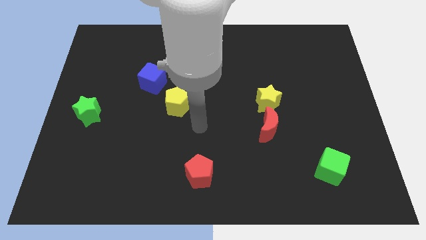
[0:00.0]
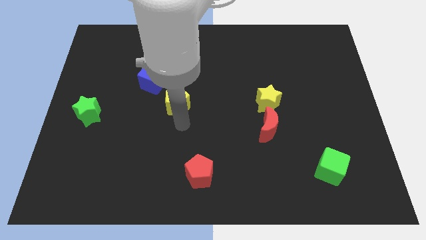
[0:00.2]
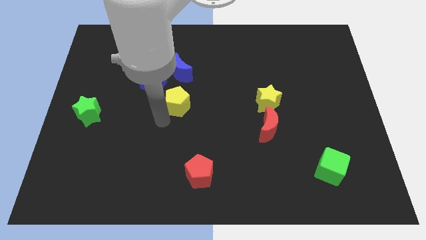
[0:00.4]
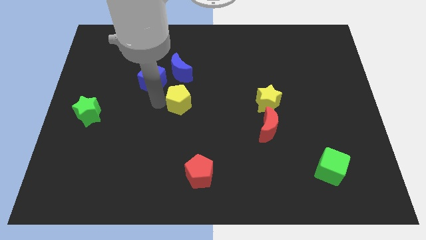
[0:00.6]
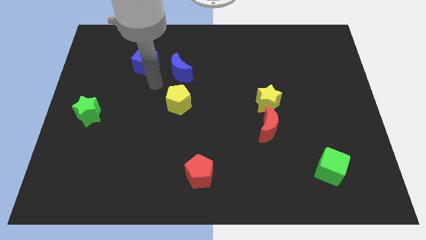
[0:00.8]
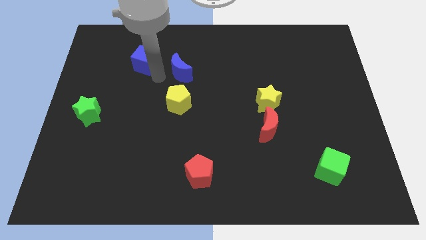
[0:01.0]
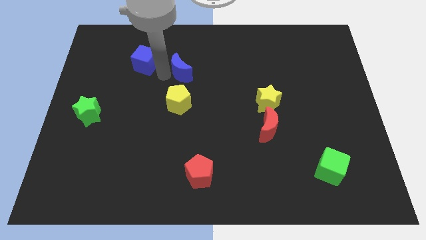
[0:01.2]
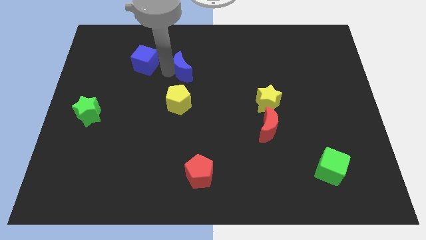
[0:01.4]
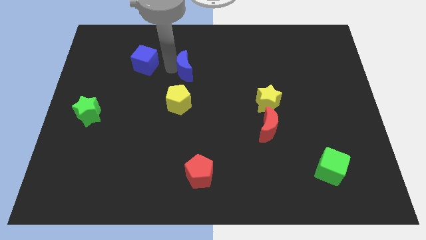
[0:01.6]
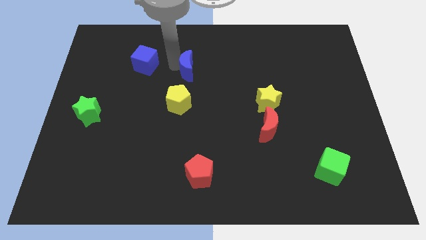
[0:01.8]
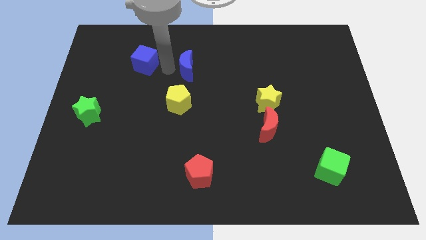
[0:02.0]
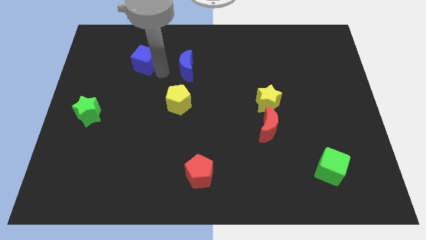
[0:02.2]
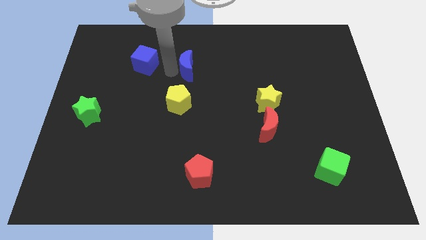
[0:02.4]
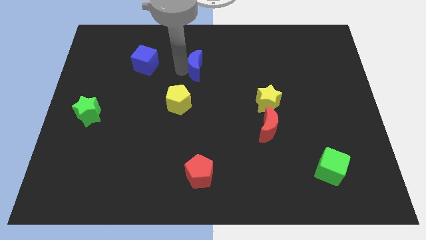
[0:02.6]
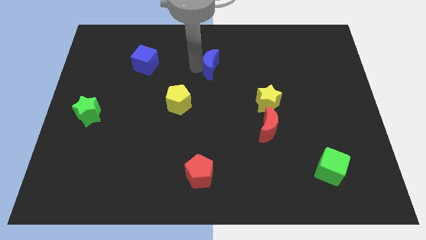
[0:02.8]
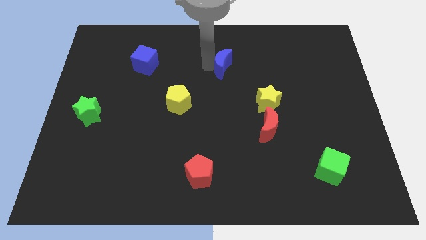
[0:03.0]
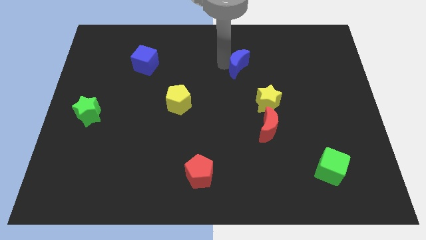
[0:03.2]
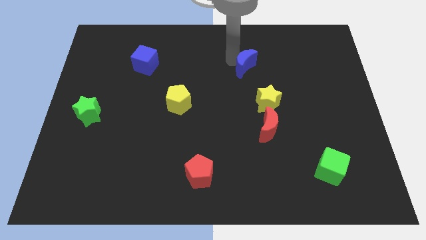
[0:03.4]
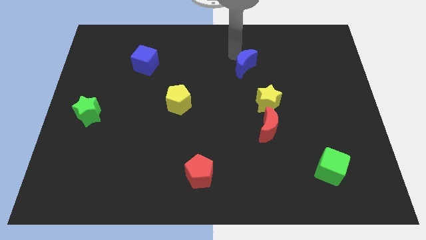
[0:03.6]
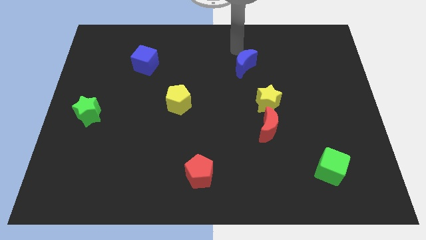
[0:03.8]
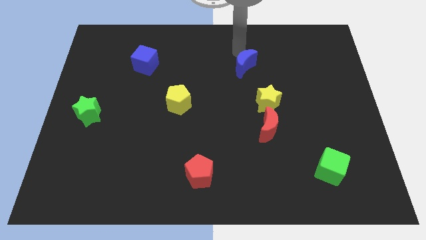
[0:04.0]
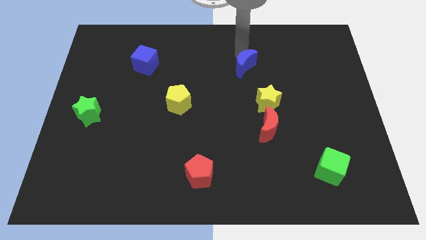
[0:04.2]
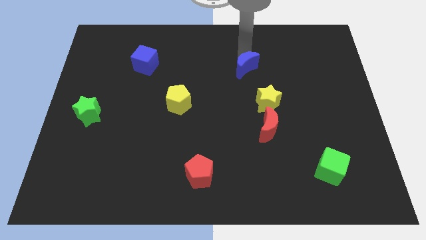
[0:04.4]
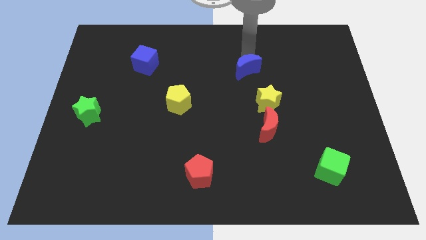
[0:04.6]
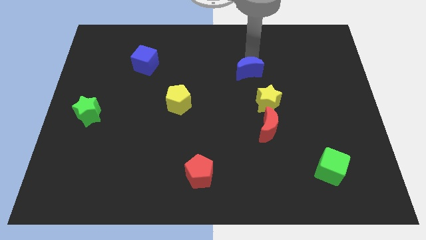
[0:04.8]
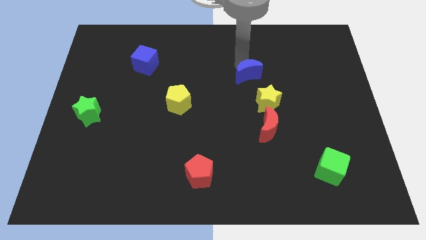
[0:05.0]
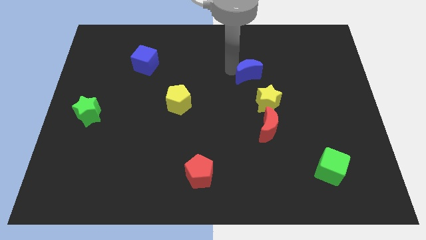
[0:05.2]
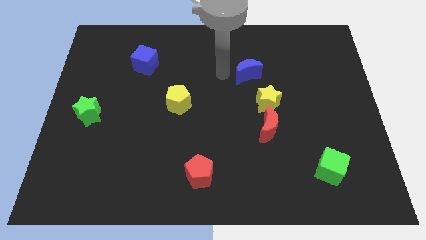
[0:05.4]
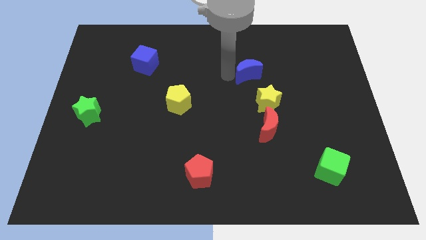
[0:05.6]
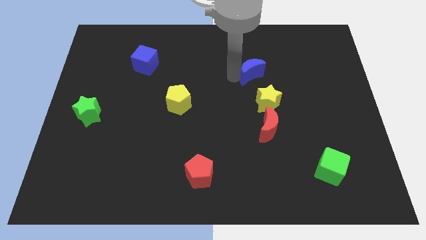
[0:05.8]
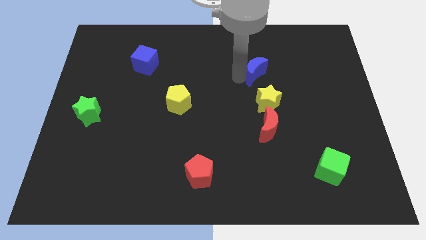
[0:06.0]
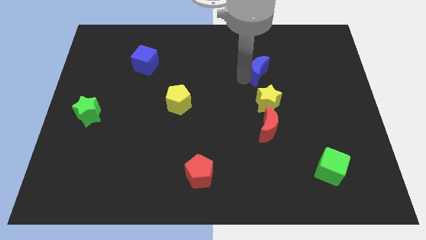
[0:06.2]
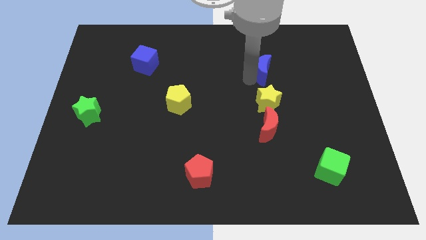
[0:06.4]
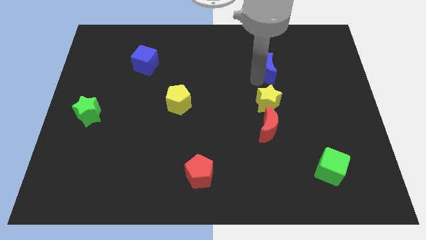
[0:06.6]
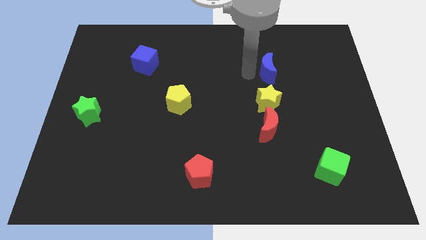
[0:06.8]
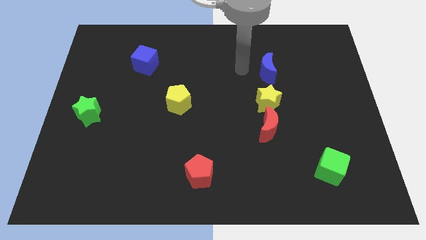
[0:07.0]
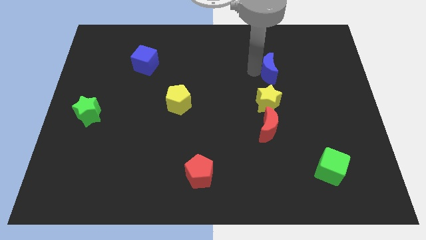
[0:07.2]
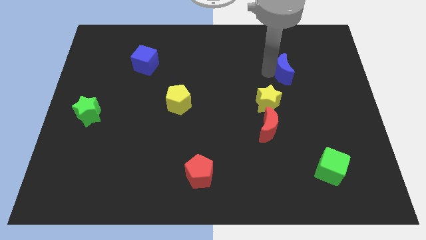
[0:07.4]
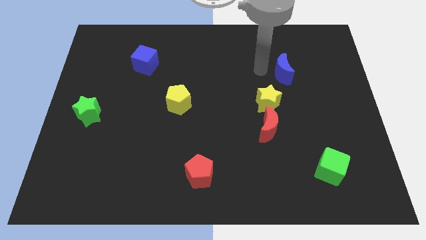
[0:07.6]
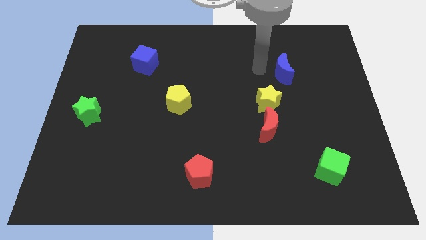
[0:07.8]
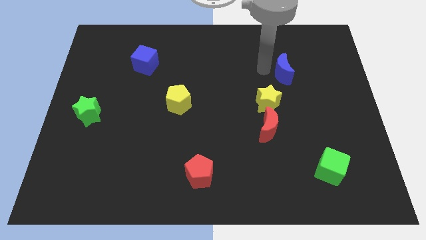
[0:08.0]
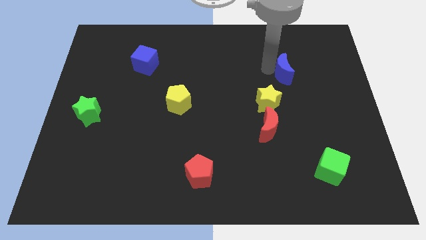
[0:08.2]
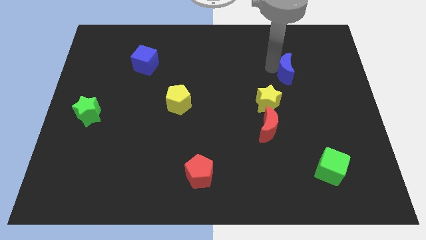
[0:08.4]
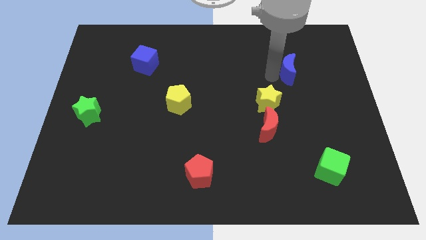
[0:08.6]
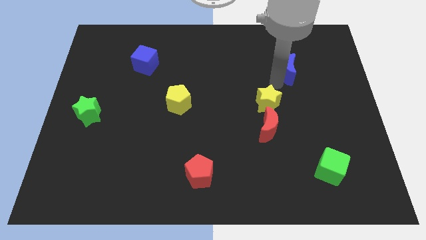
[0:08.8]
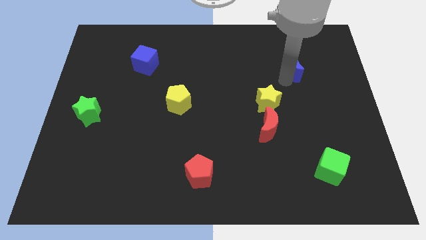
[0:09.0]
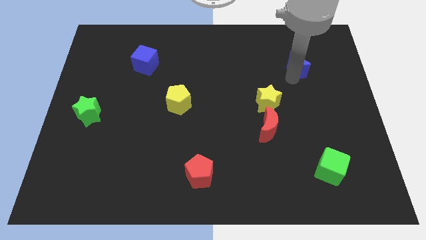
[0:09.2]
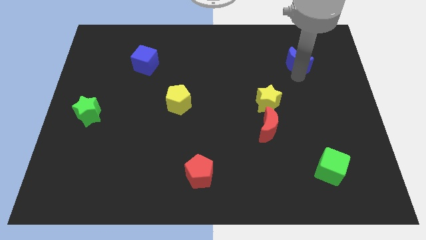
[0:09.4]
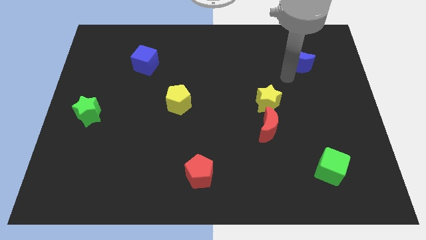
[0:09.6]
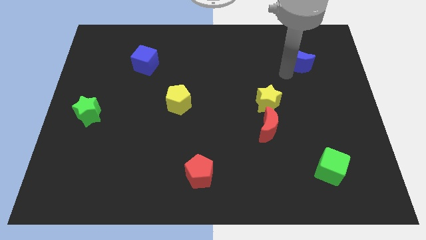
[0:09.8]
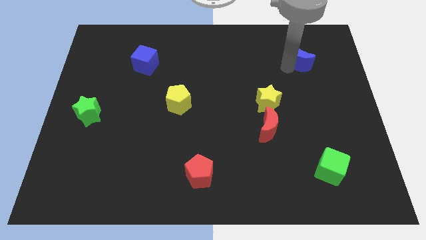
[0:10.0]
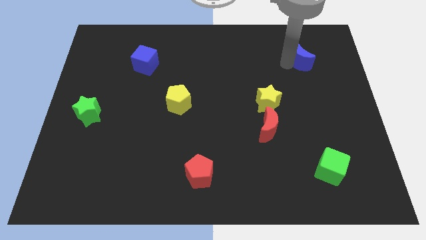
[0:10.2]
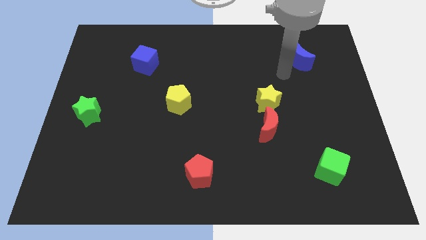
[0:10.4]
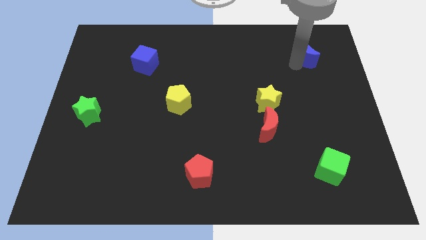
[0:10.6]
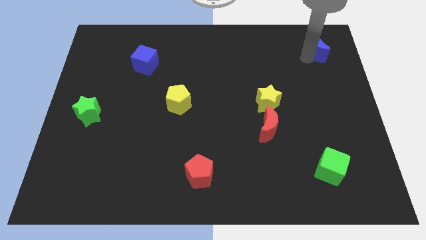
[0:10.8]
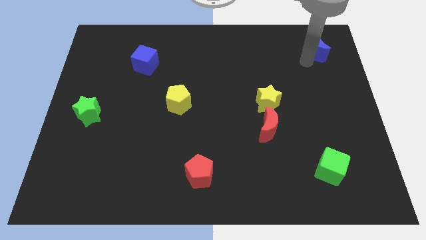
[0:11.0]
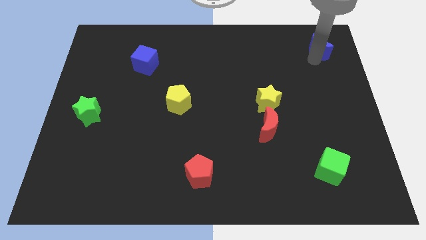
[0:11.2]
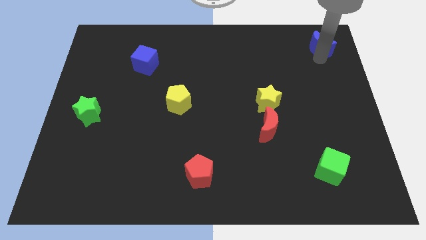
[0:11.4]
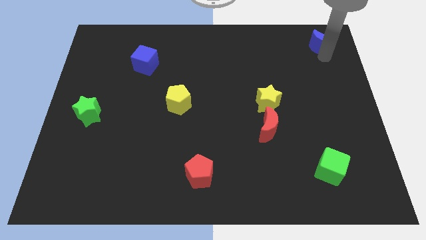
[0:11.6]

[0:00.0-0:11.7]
push the blue moon to the top right of the board

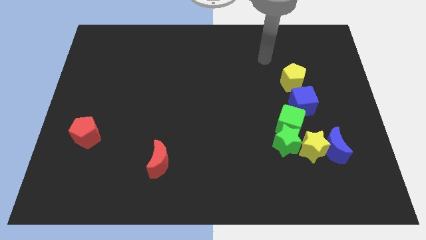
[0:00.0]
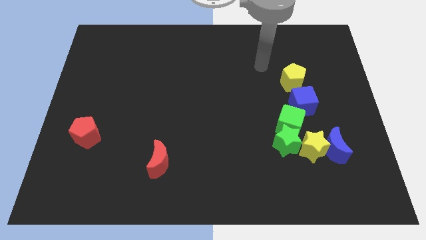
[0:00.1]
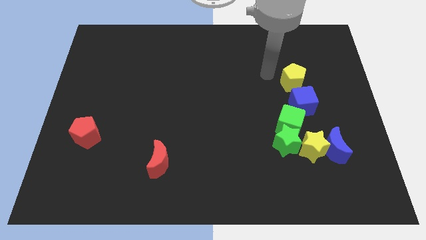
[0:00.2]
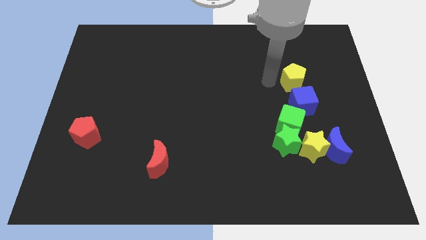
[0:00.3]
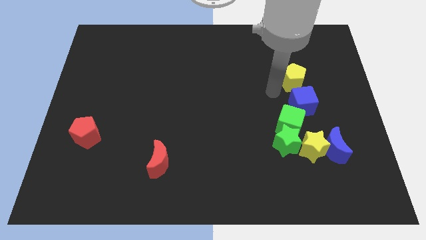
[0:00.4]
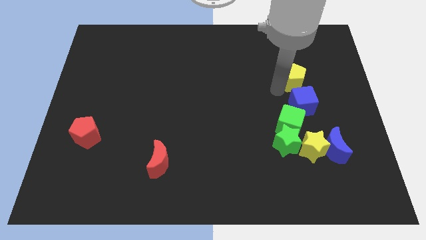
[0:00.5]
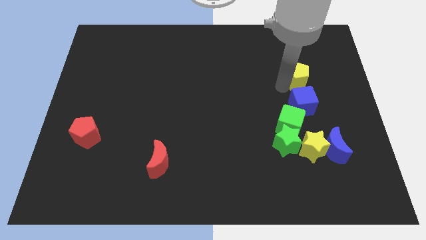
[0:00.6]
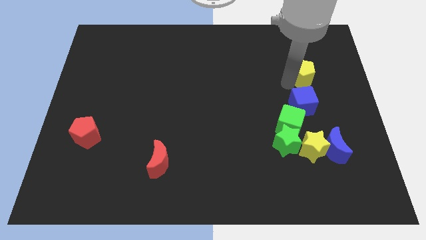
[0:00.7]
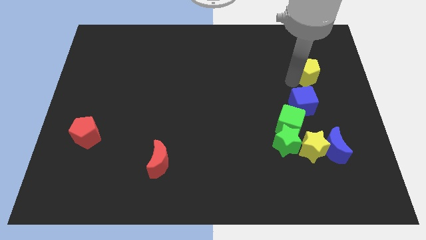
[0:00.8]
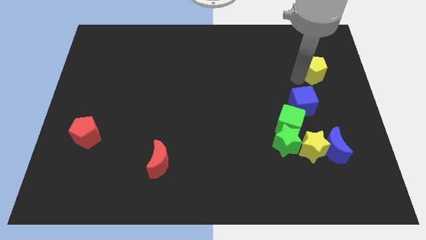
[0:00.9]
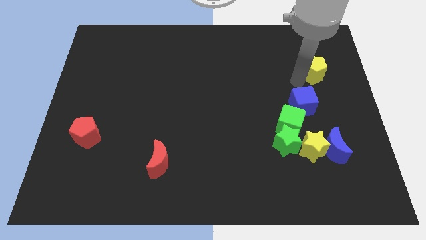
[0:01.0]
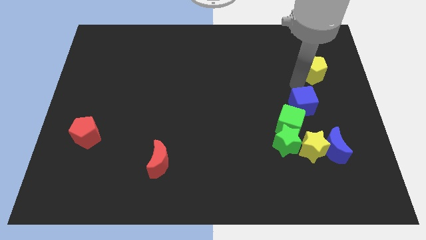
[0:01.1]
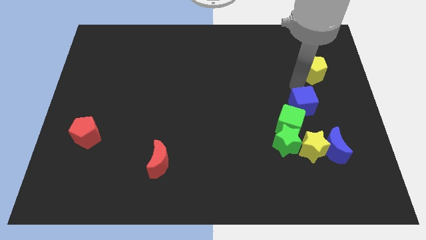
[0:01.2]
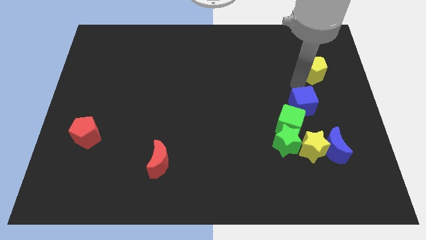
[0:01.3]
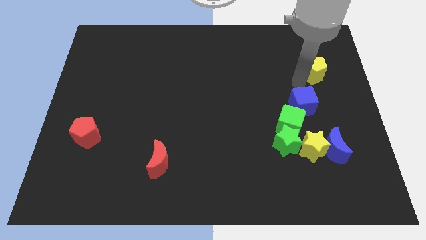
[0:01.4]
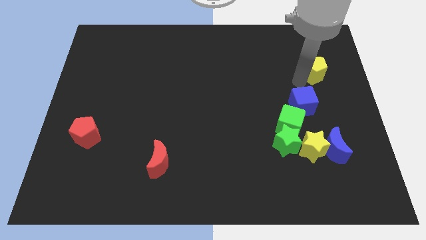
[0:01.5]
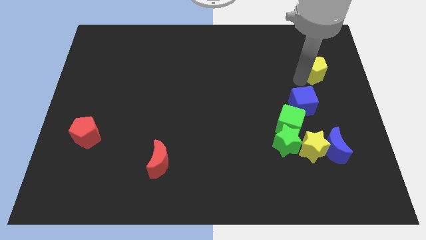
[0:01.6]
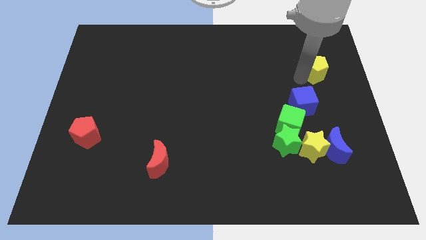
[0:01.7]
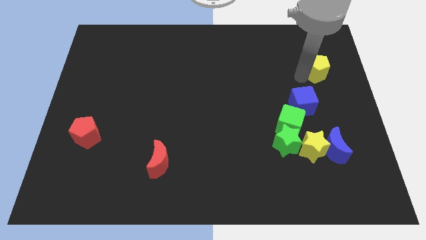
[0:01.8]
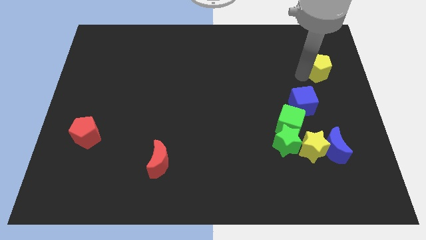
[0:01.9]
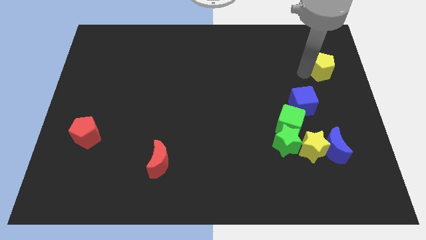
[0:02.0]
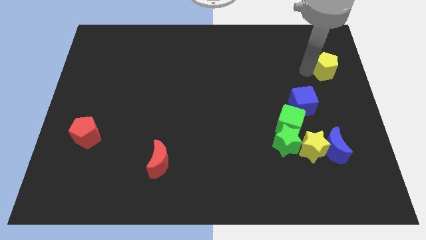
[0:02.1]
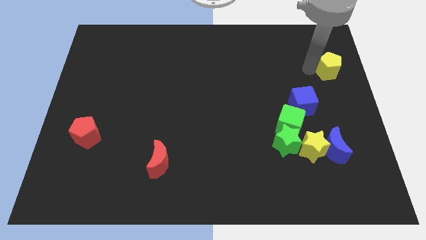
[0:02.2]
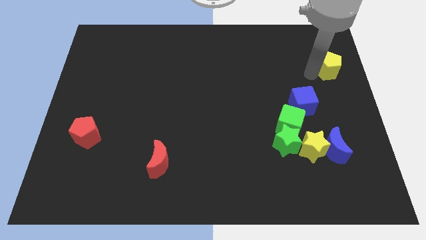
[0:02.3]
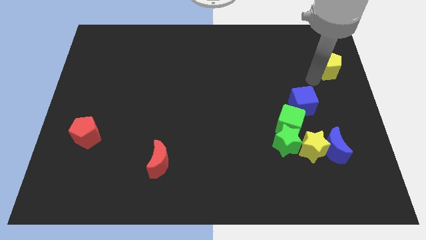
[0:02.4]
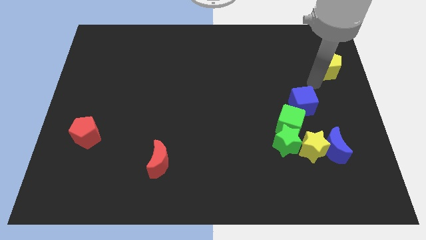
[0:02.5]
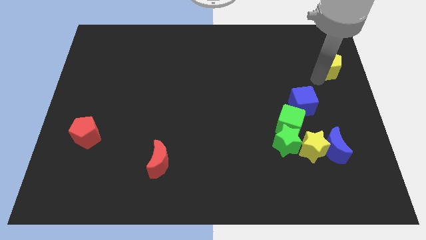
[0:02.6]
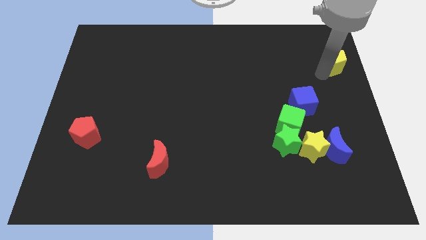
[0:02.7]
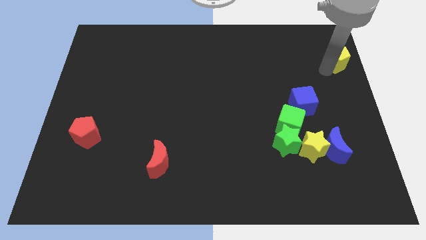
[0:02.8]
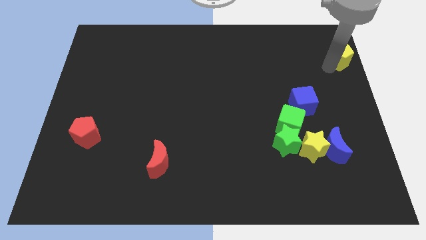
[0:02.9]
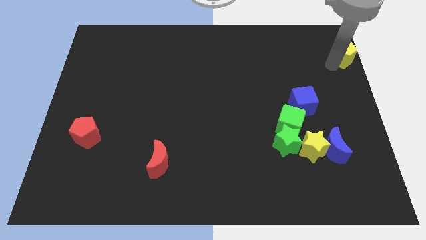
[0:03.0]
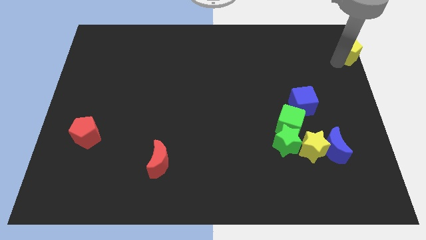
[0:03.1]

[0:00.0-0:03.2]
push the yellow pentagon to the top right
